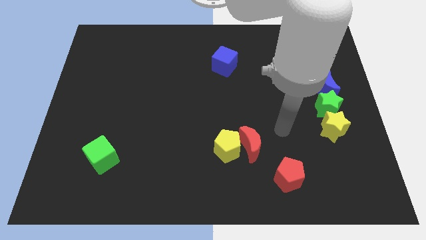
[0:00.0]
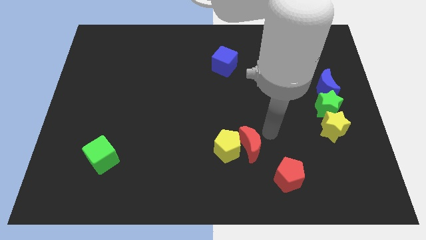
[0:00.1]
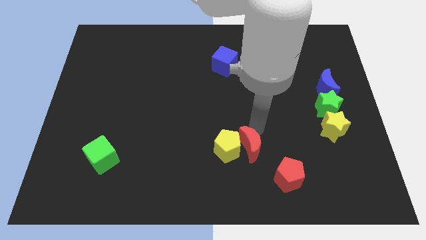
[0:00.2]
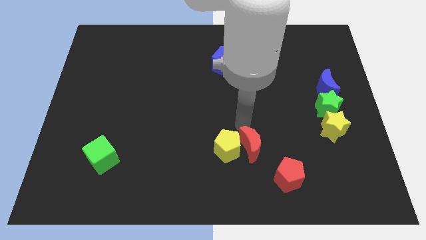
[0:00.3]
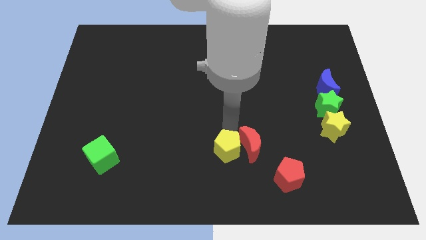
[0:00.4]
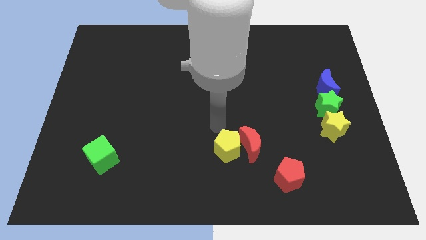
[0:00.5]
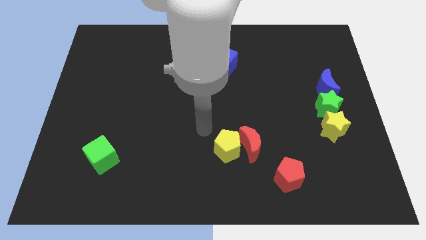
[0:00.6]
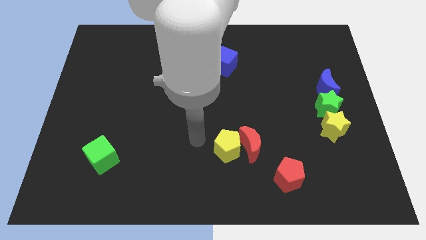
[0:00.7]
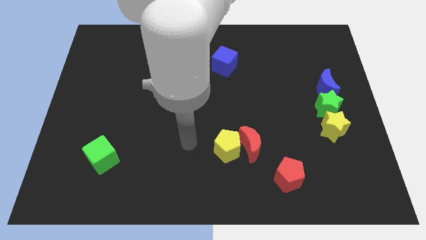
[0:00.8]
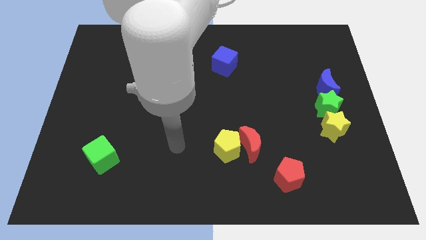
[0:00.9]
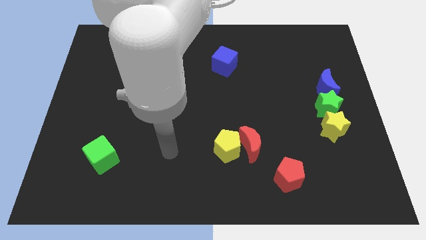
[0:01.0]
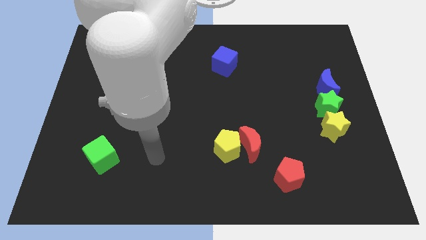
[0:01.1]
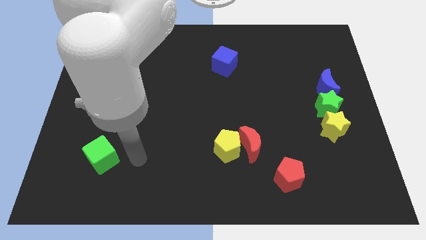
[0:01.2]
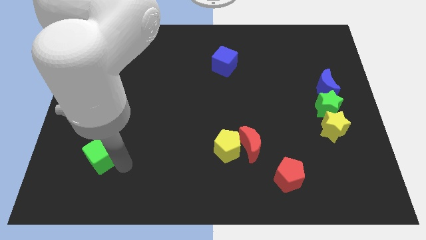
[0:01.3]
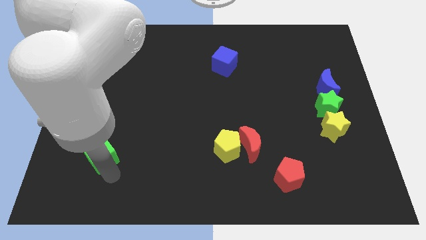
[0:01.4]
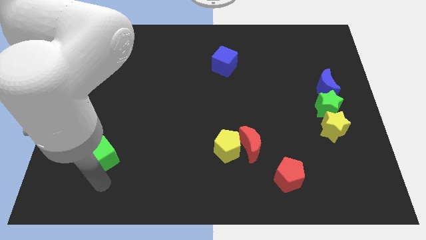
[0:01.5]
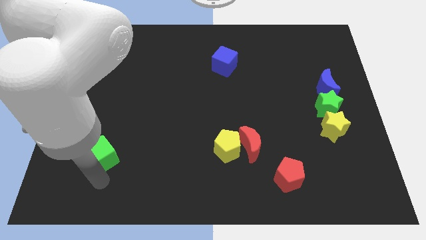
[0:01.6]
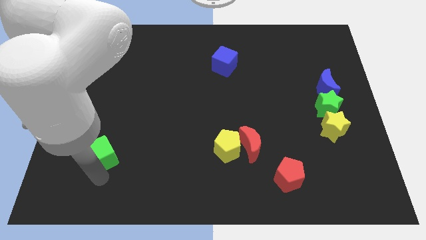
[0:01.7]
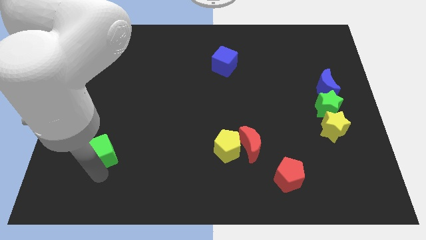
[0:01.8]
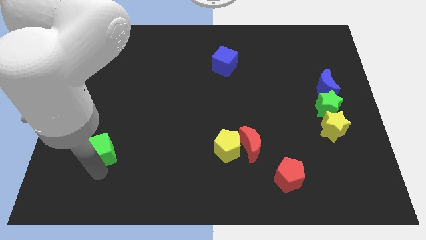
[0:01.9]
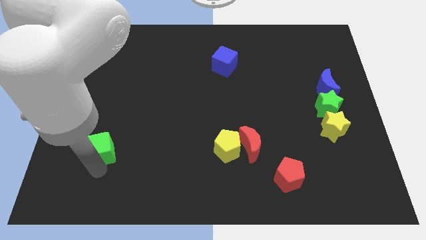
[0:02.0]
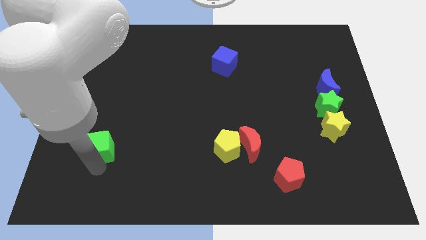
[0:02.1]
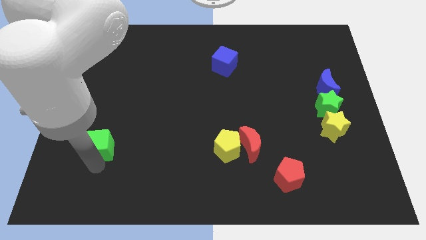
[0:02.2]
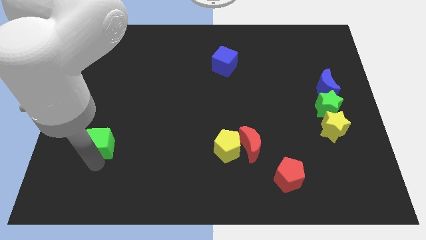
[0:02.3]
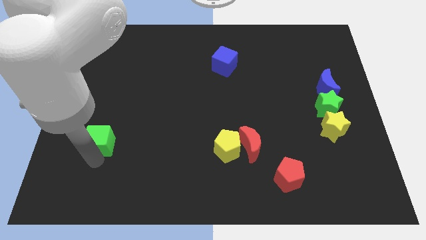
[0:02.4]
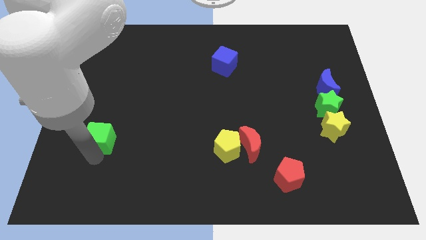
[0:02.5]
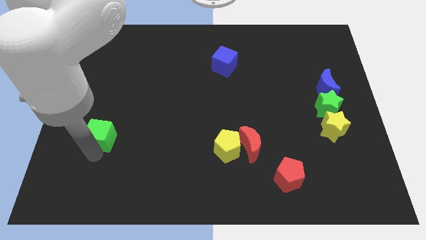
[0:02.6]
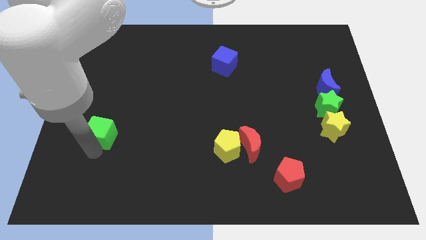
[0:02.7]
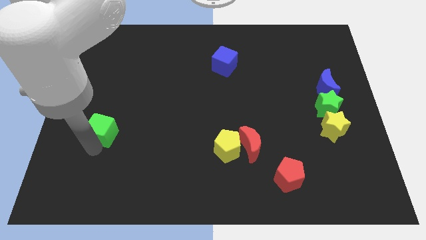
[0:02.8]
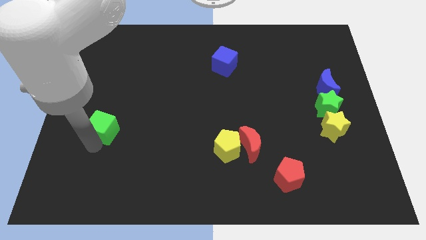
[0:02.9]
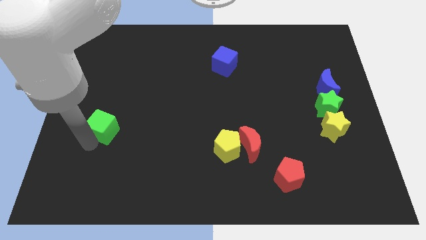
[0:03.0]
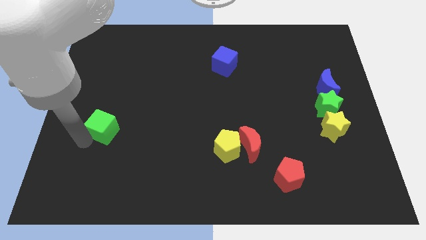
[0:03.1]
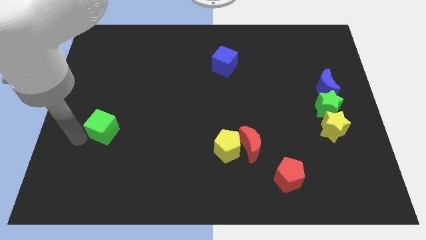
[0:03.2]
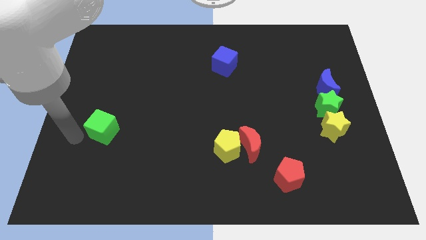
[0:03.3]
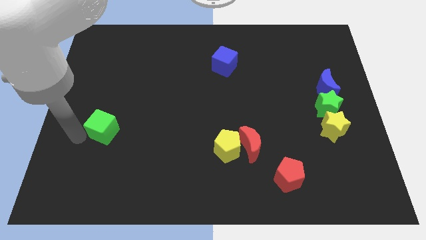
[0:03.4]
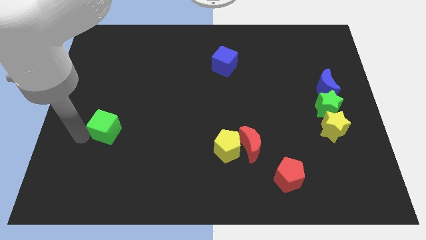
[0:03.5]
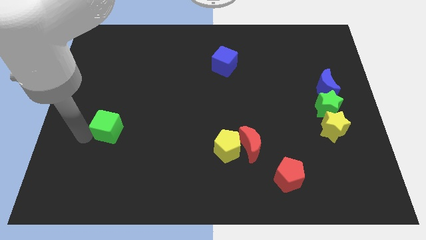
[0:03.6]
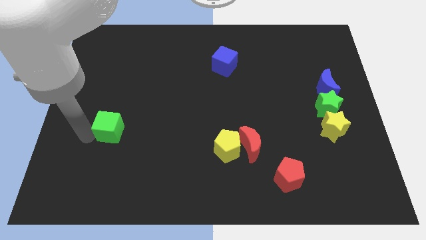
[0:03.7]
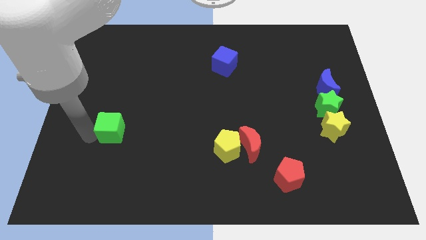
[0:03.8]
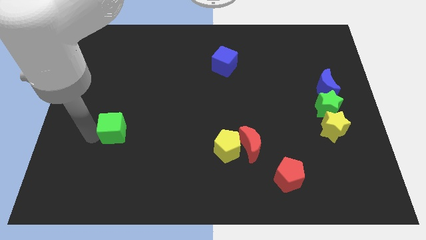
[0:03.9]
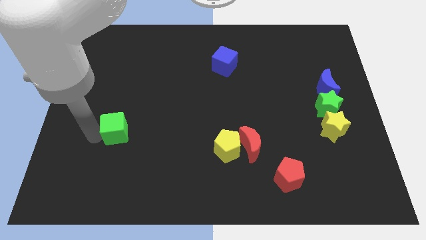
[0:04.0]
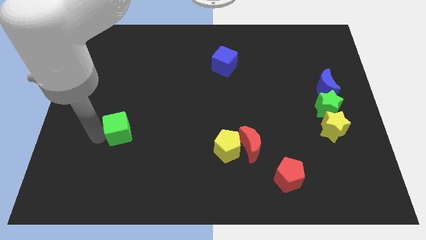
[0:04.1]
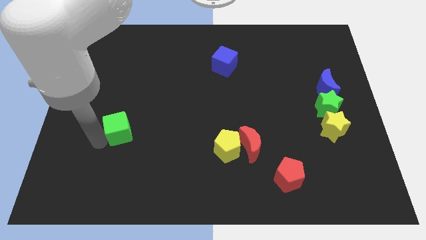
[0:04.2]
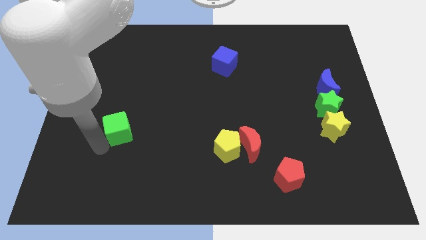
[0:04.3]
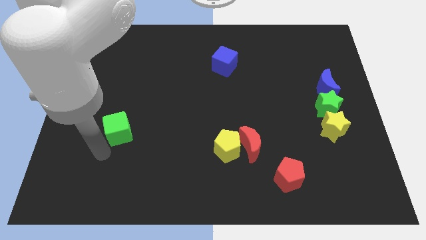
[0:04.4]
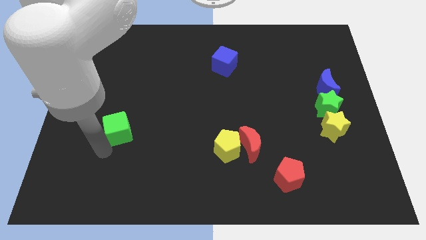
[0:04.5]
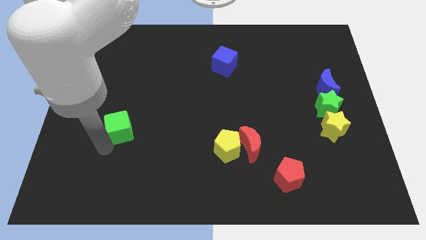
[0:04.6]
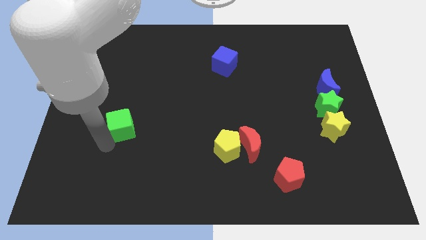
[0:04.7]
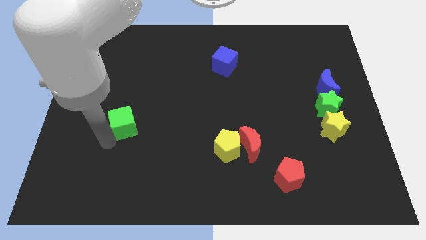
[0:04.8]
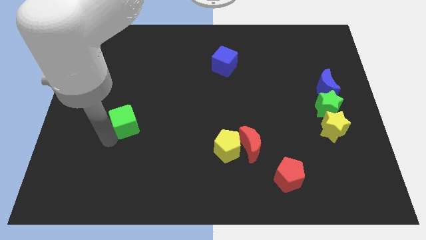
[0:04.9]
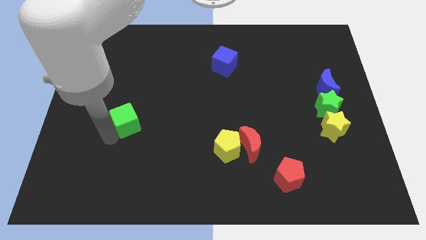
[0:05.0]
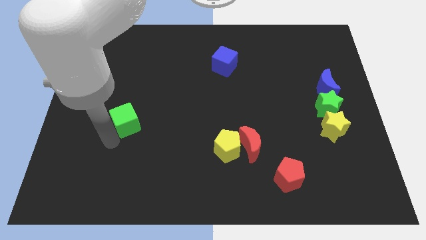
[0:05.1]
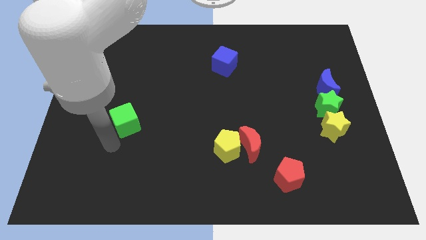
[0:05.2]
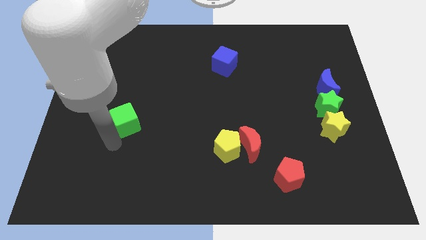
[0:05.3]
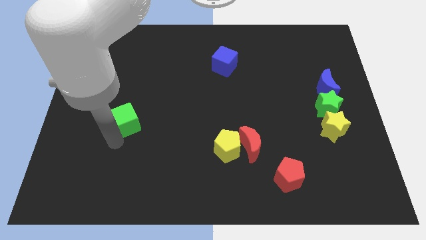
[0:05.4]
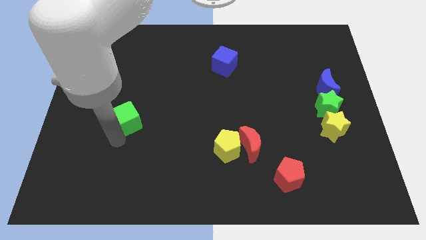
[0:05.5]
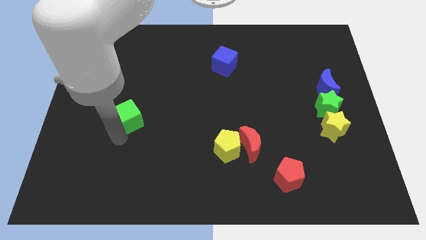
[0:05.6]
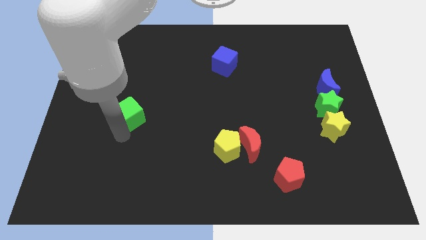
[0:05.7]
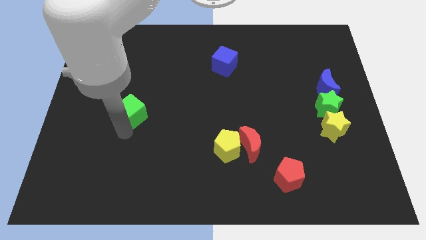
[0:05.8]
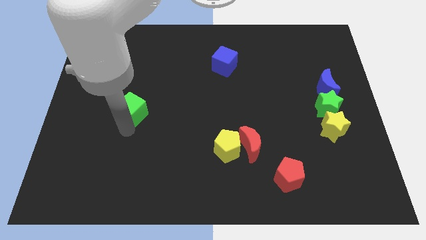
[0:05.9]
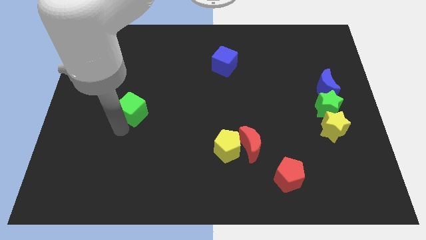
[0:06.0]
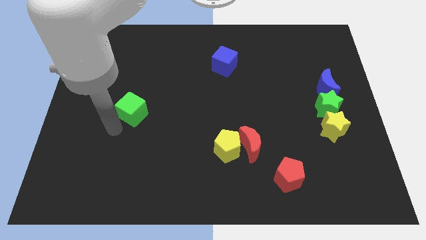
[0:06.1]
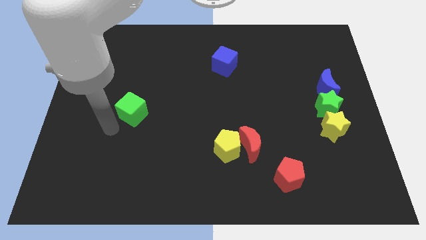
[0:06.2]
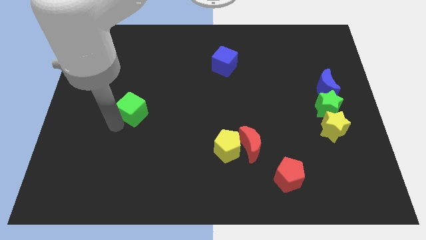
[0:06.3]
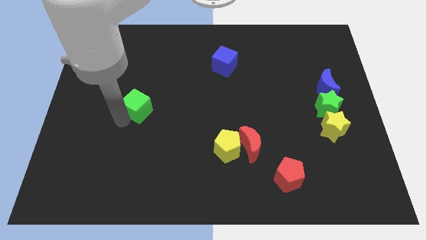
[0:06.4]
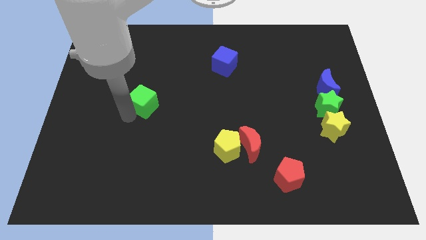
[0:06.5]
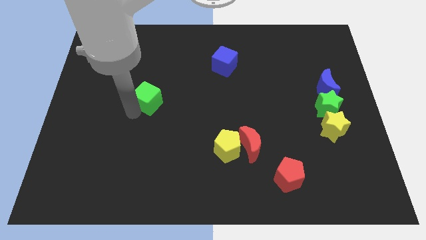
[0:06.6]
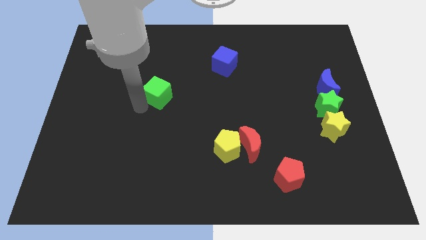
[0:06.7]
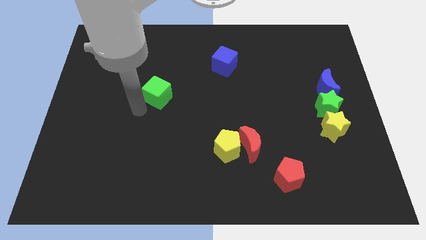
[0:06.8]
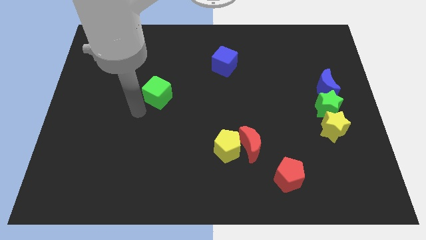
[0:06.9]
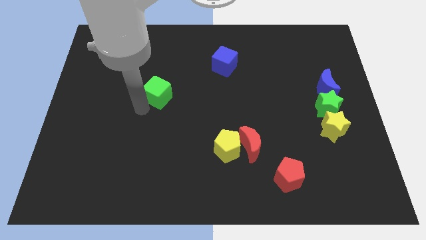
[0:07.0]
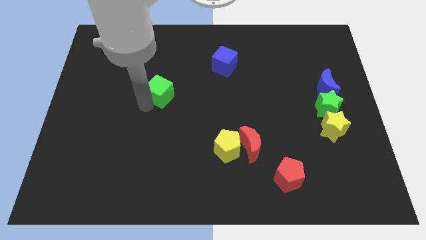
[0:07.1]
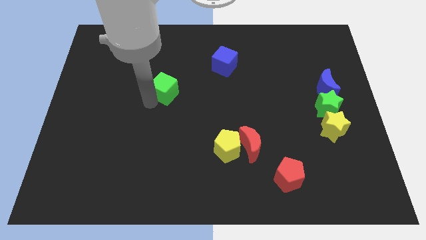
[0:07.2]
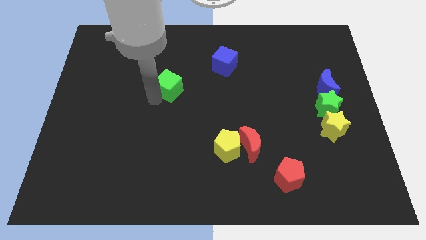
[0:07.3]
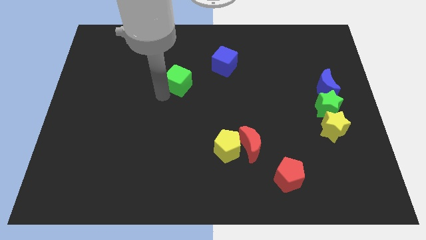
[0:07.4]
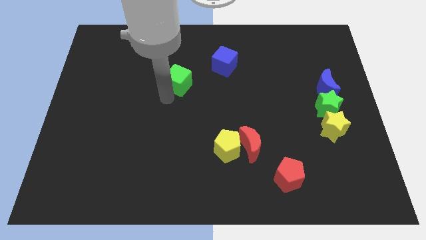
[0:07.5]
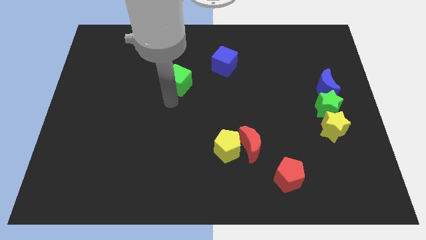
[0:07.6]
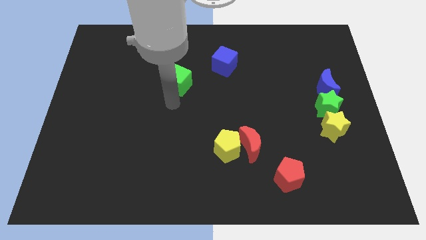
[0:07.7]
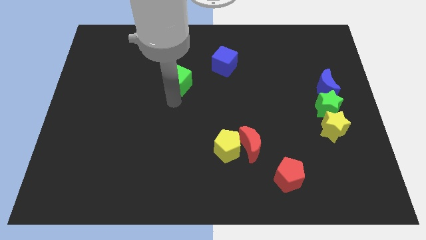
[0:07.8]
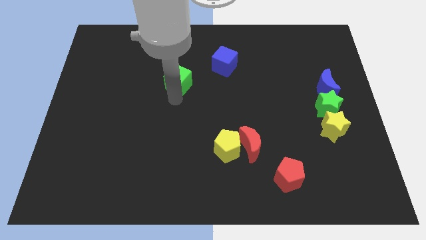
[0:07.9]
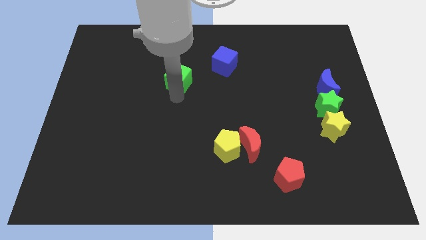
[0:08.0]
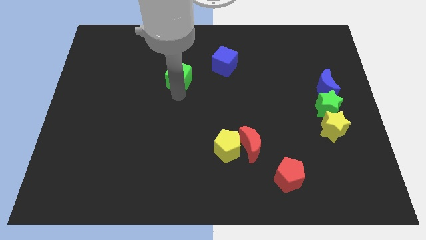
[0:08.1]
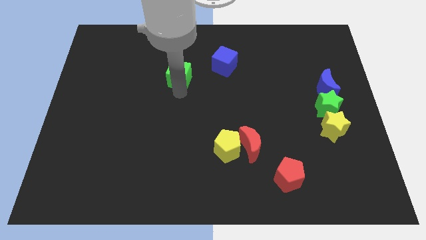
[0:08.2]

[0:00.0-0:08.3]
put the green cube to the left of the blue cube
